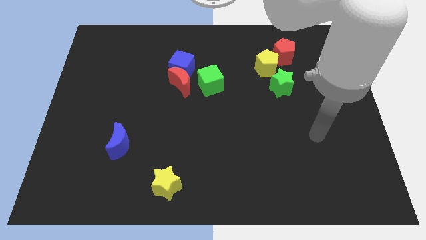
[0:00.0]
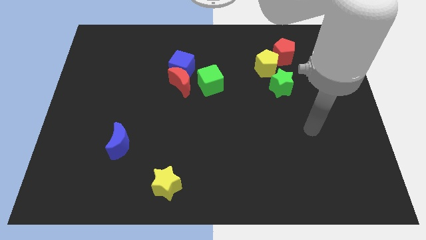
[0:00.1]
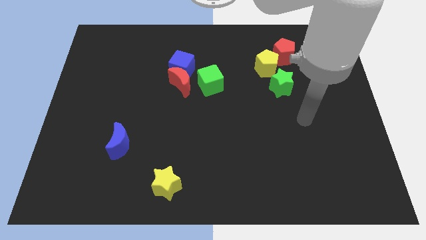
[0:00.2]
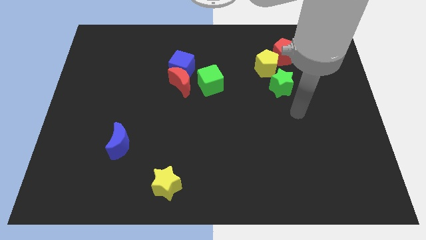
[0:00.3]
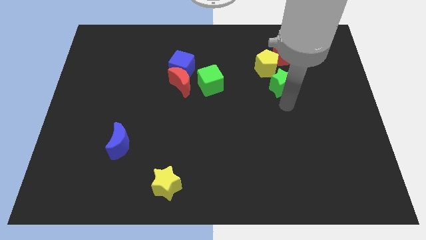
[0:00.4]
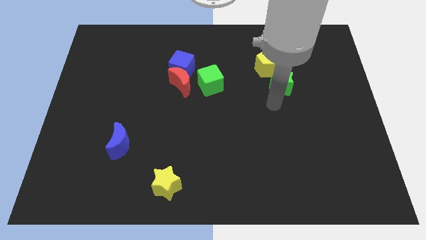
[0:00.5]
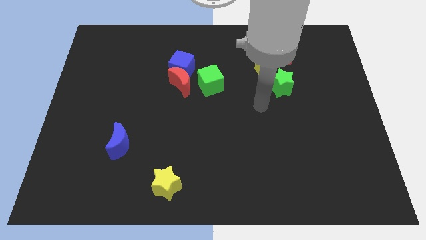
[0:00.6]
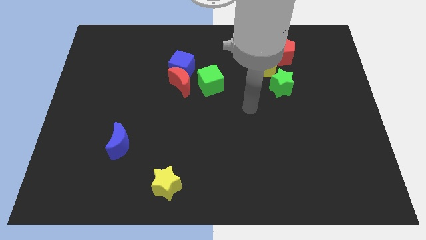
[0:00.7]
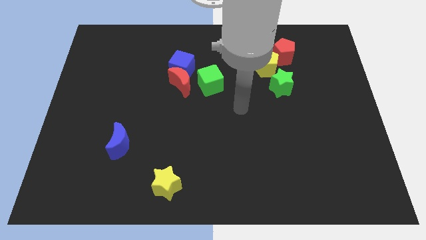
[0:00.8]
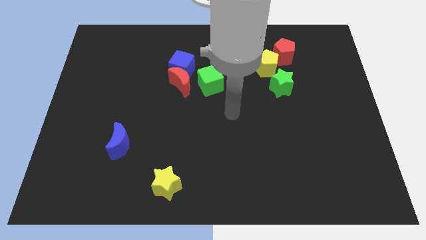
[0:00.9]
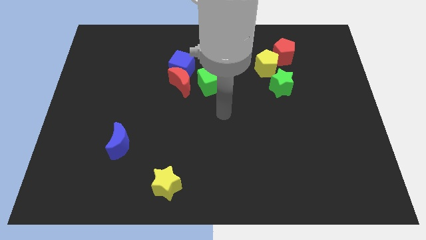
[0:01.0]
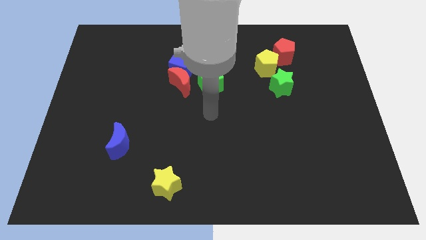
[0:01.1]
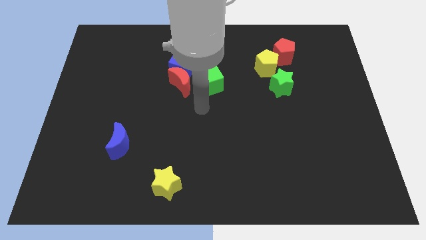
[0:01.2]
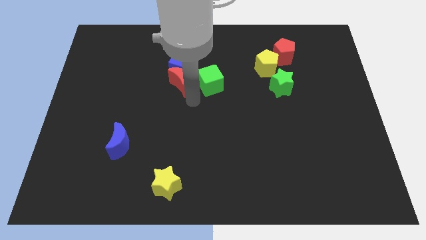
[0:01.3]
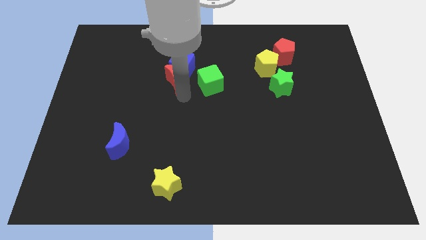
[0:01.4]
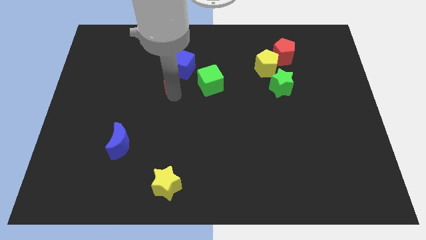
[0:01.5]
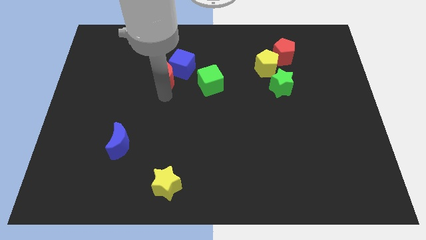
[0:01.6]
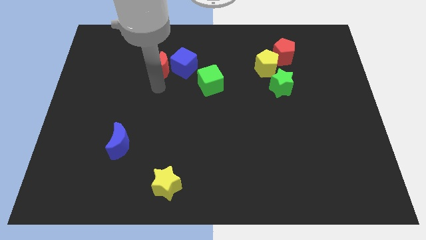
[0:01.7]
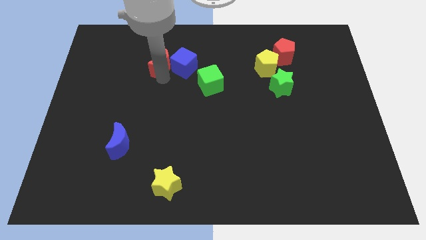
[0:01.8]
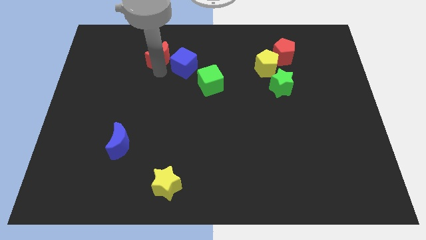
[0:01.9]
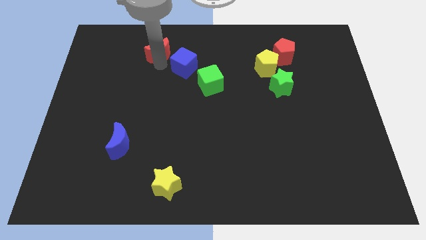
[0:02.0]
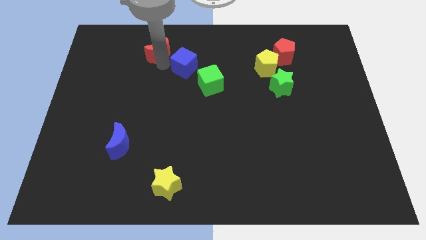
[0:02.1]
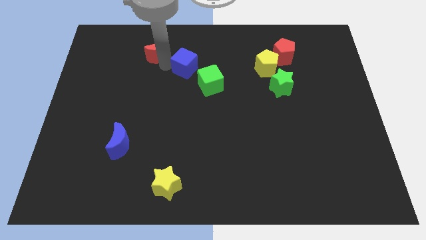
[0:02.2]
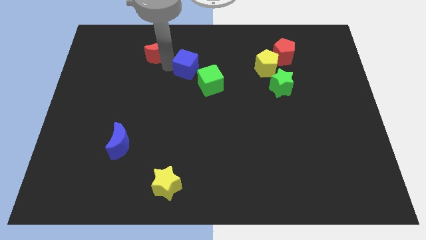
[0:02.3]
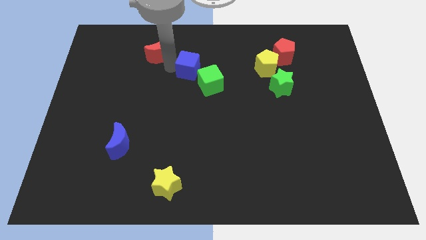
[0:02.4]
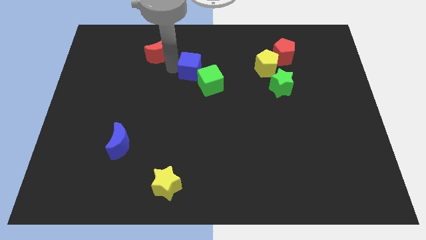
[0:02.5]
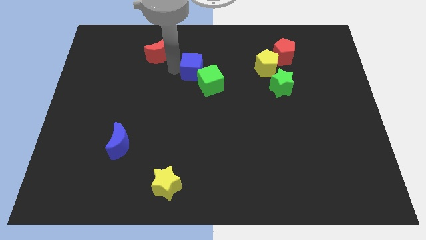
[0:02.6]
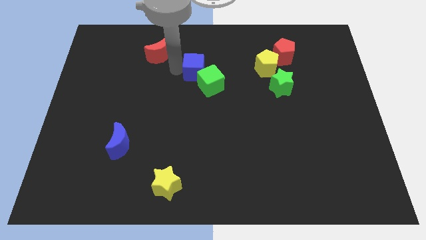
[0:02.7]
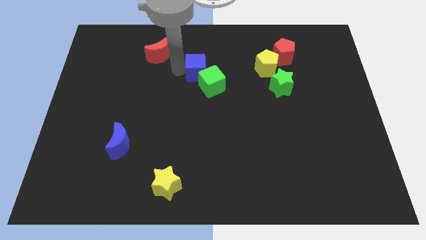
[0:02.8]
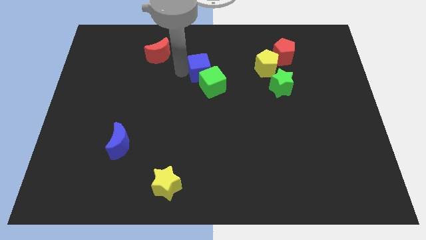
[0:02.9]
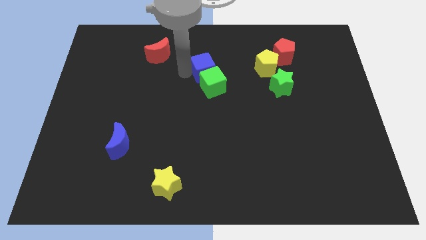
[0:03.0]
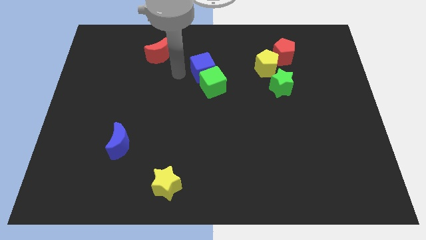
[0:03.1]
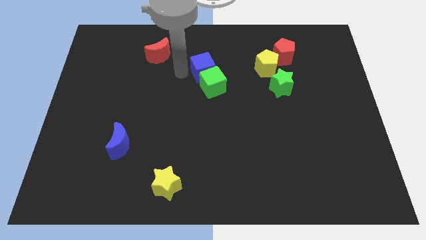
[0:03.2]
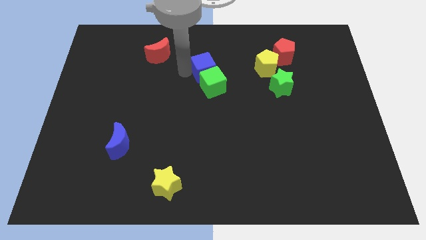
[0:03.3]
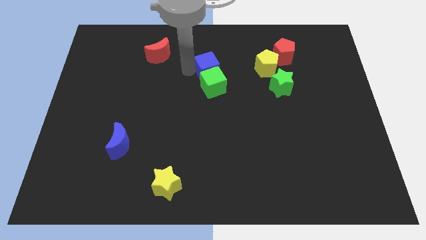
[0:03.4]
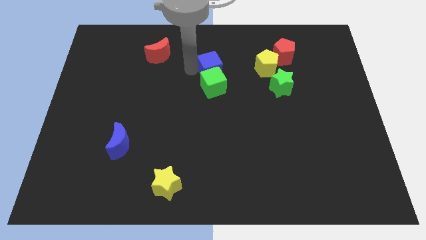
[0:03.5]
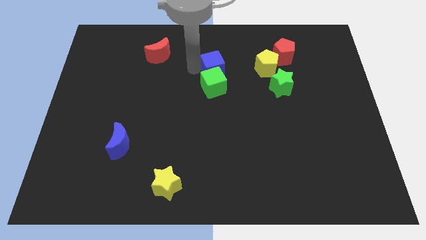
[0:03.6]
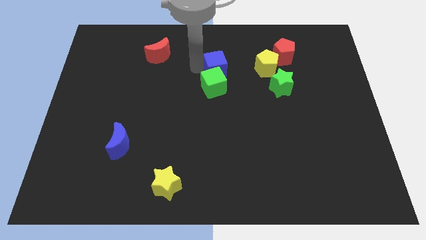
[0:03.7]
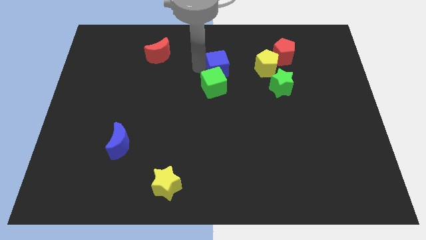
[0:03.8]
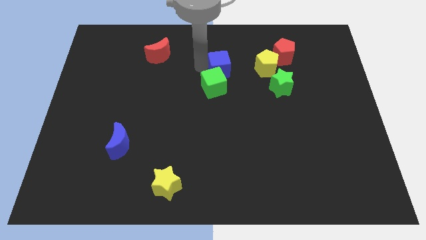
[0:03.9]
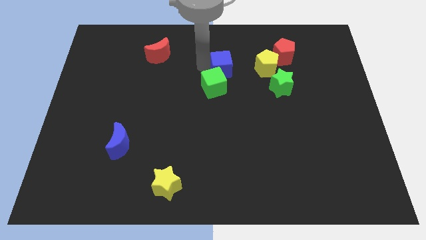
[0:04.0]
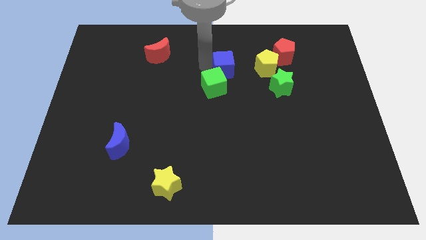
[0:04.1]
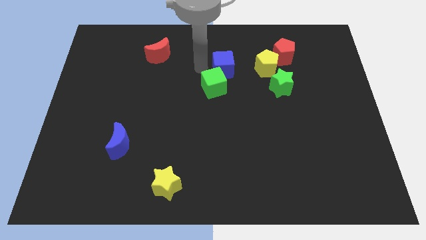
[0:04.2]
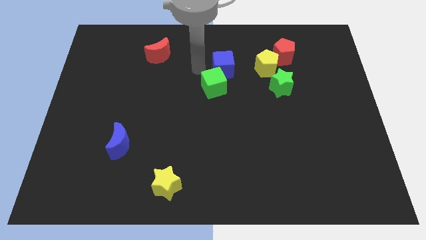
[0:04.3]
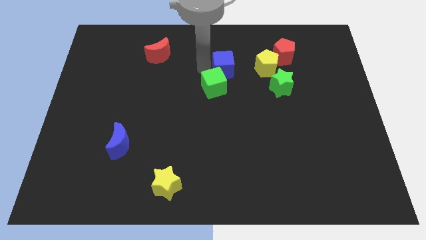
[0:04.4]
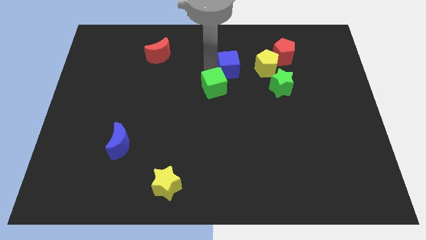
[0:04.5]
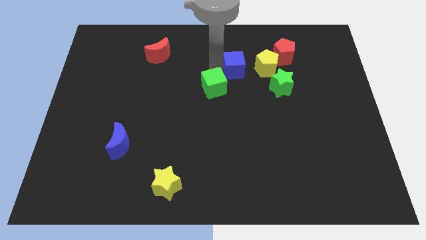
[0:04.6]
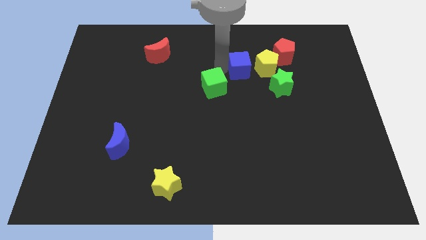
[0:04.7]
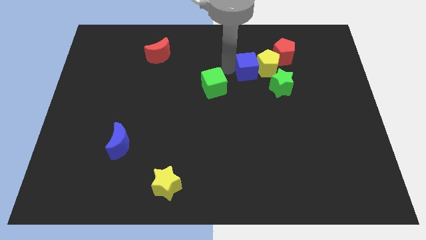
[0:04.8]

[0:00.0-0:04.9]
slide the blue cube close to the yellow pentagon

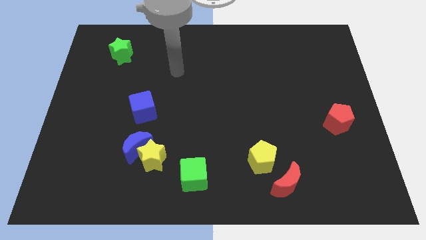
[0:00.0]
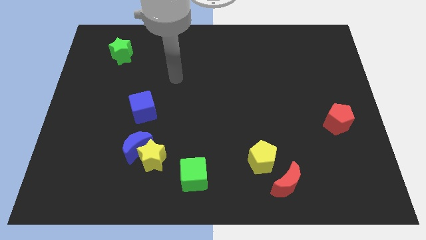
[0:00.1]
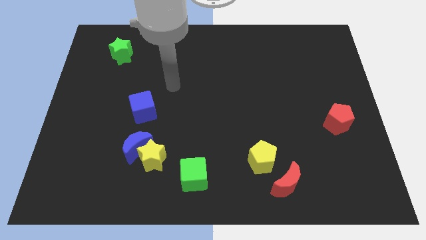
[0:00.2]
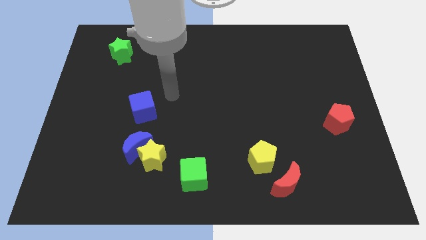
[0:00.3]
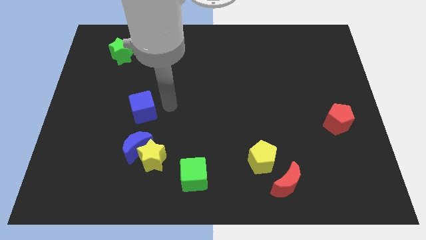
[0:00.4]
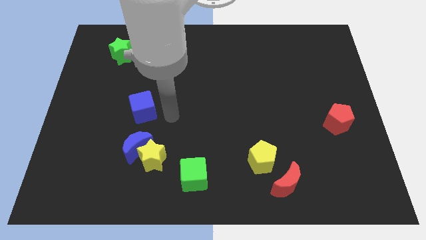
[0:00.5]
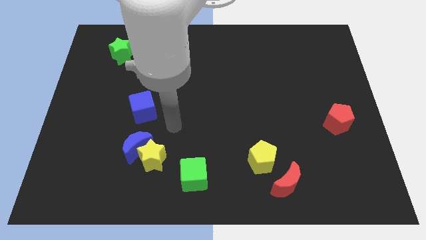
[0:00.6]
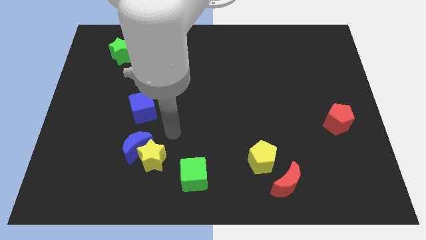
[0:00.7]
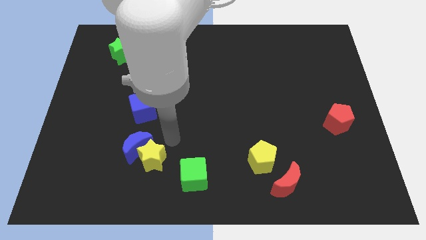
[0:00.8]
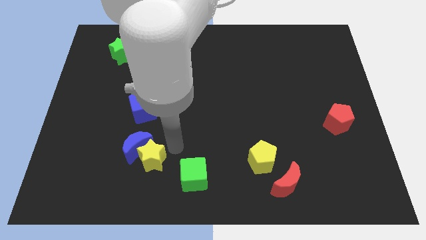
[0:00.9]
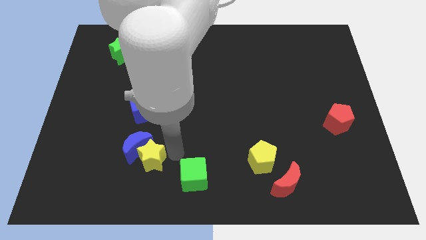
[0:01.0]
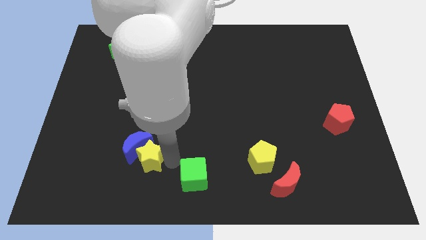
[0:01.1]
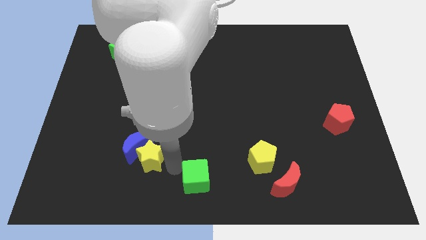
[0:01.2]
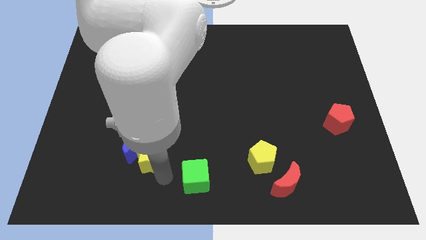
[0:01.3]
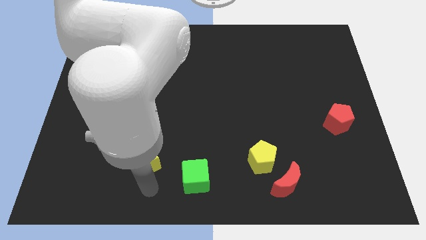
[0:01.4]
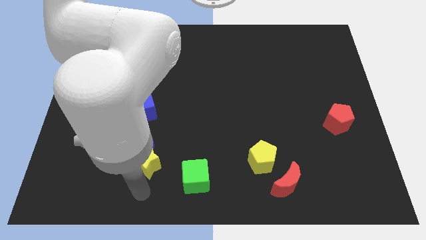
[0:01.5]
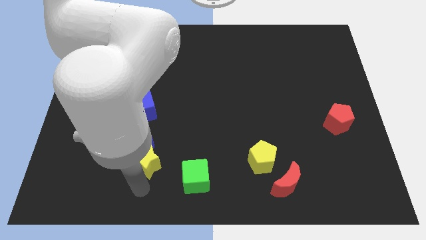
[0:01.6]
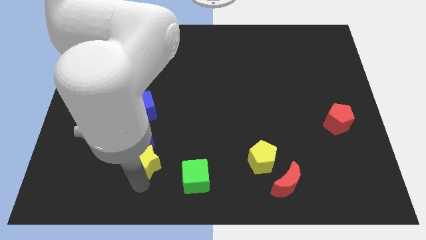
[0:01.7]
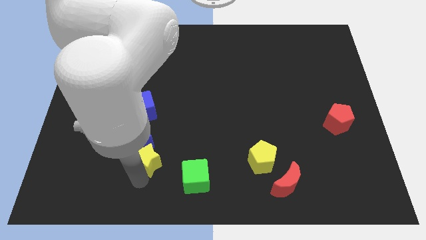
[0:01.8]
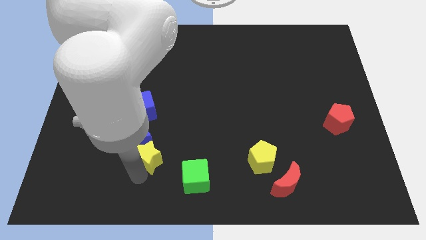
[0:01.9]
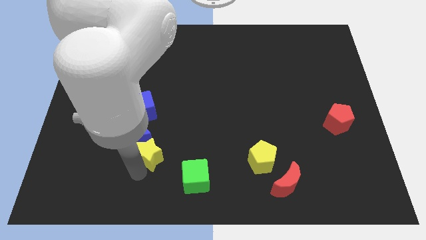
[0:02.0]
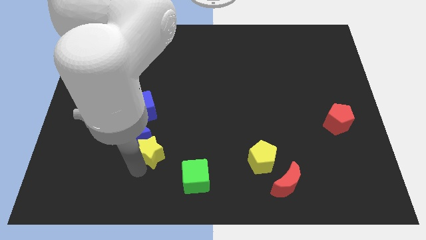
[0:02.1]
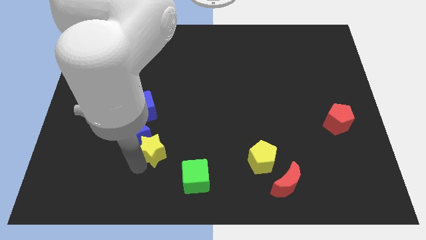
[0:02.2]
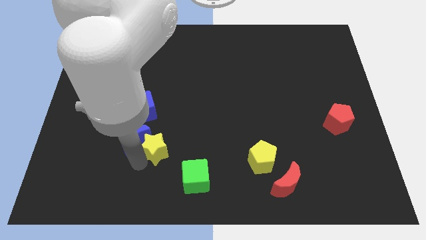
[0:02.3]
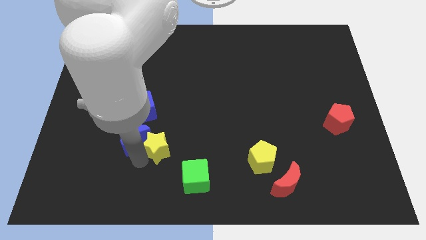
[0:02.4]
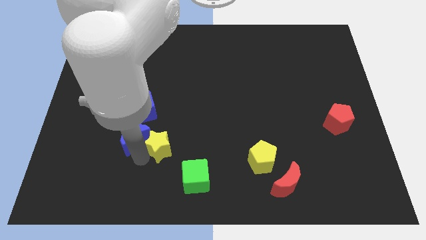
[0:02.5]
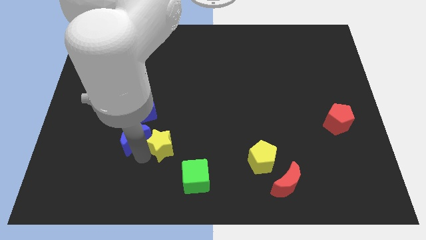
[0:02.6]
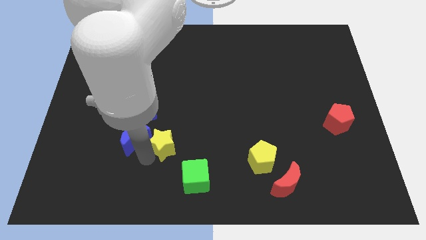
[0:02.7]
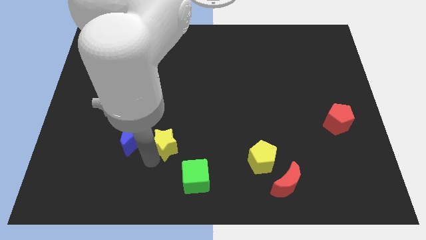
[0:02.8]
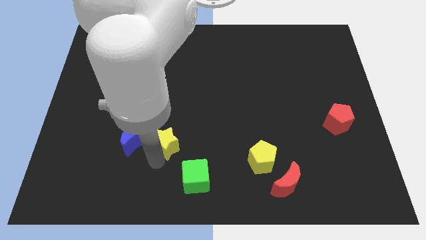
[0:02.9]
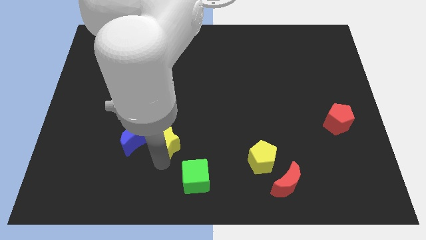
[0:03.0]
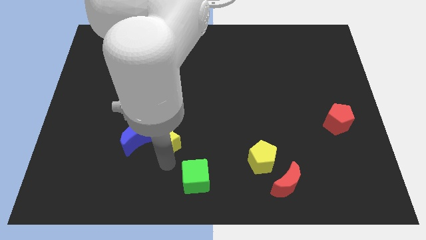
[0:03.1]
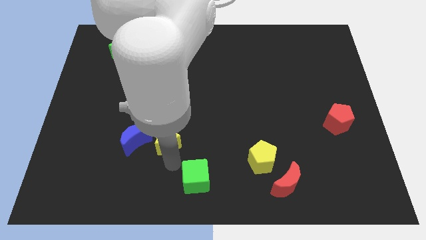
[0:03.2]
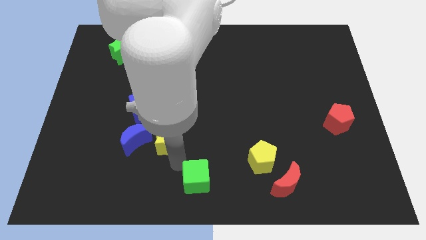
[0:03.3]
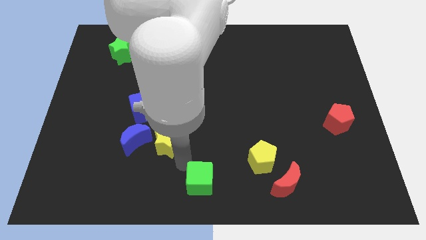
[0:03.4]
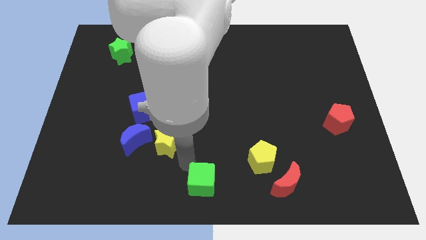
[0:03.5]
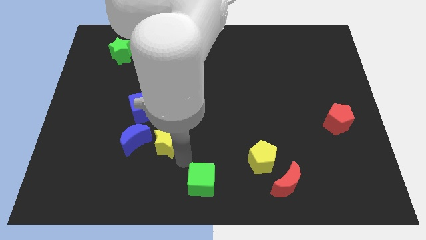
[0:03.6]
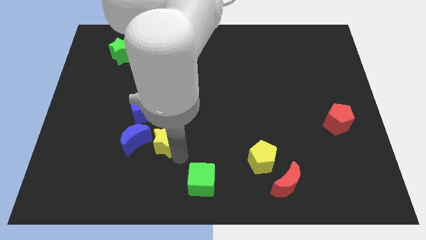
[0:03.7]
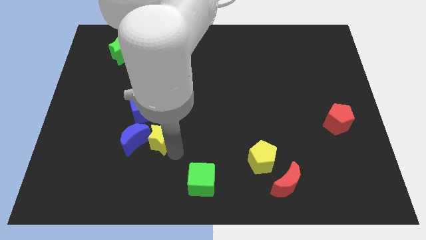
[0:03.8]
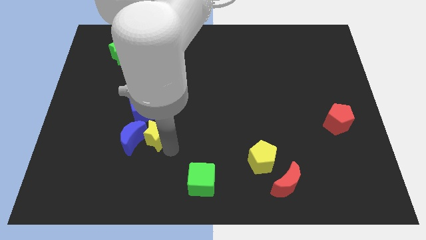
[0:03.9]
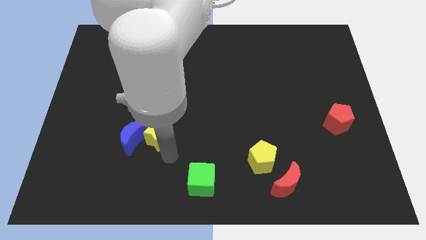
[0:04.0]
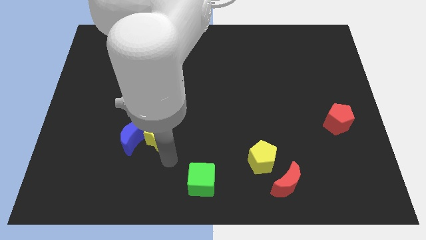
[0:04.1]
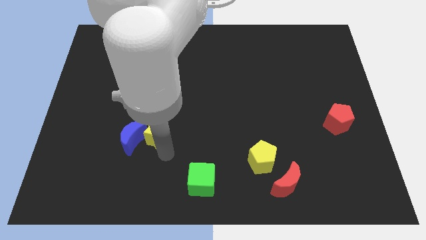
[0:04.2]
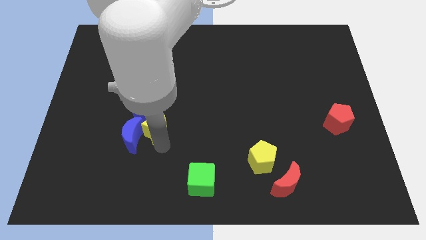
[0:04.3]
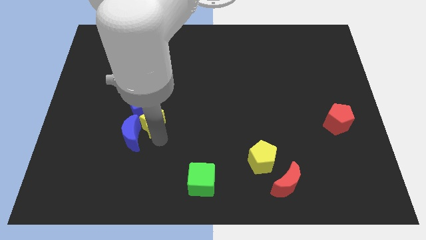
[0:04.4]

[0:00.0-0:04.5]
push the yellow star towards the blue cube
